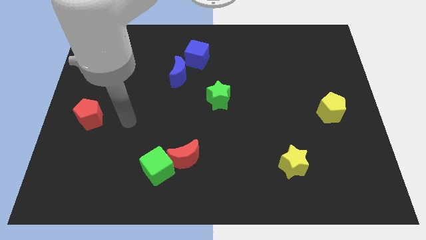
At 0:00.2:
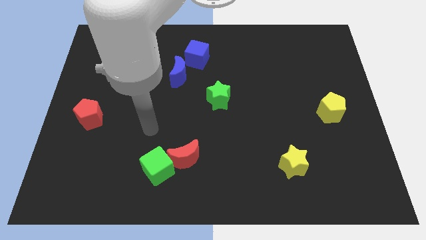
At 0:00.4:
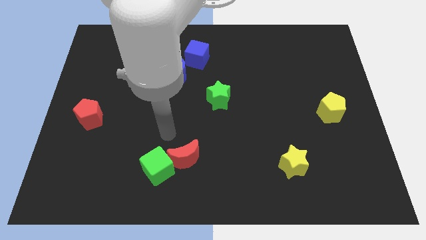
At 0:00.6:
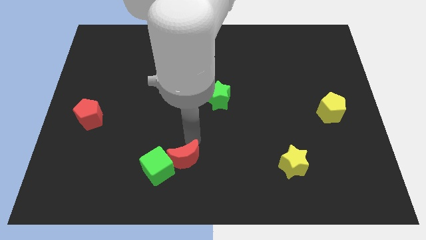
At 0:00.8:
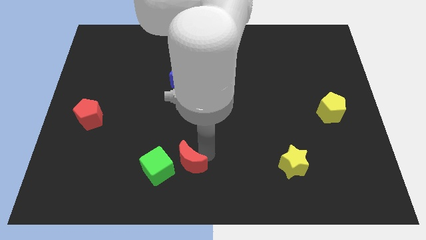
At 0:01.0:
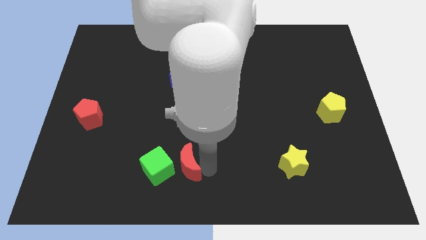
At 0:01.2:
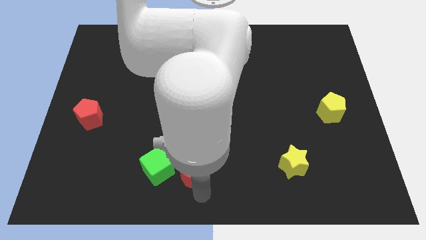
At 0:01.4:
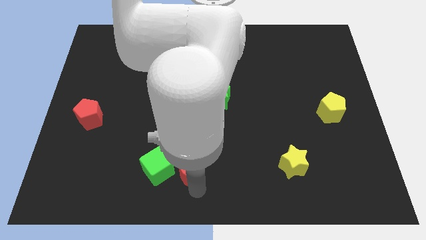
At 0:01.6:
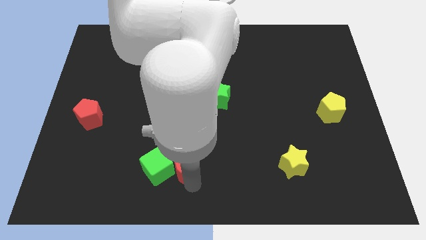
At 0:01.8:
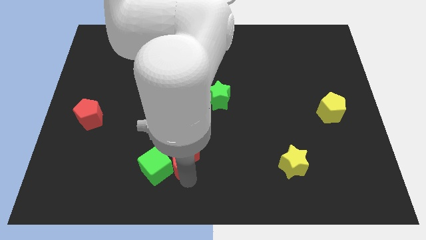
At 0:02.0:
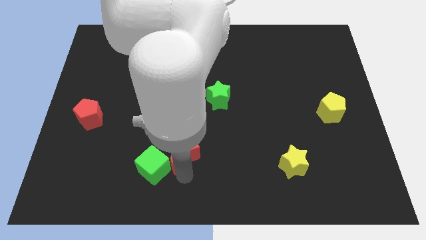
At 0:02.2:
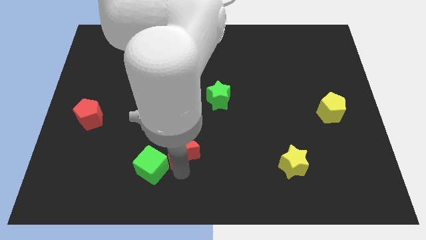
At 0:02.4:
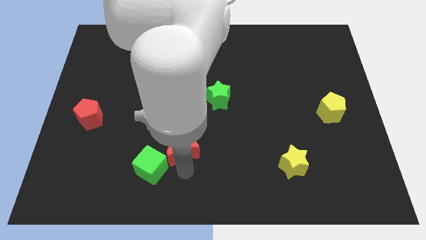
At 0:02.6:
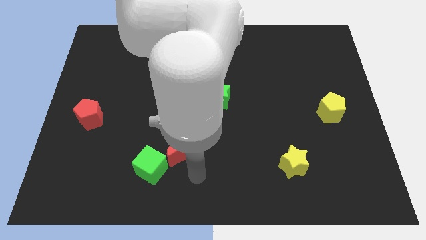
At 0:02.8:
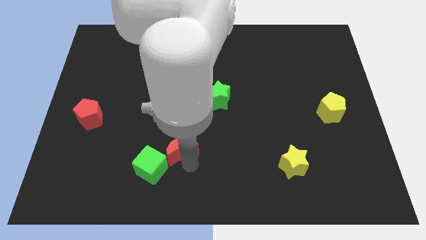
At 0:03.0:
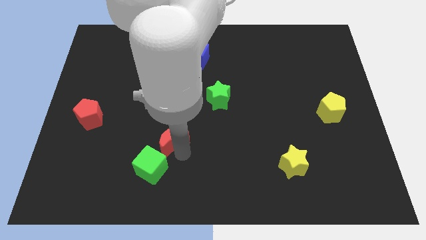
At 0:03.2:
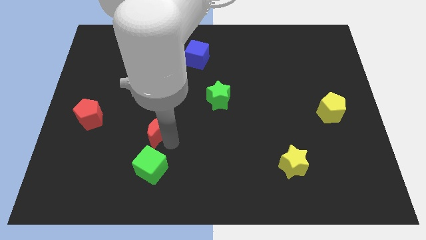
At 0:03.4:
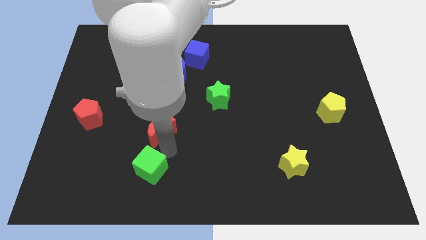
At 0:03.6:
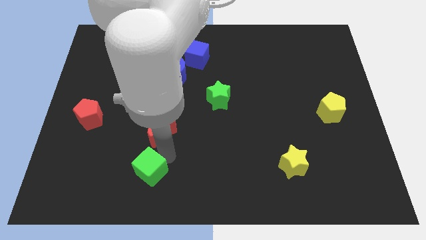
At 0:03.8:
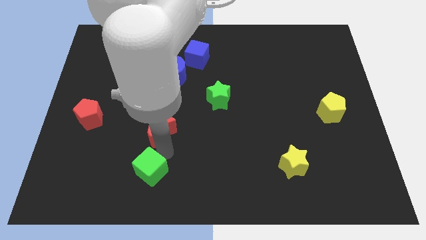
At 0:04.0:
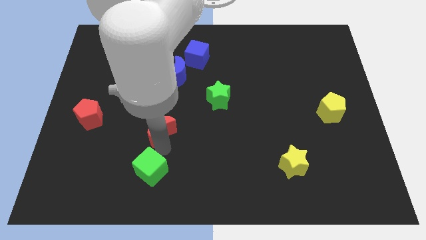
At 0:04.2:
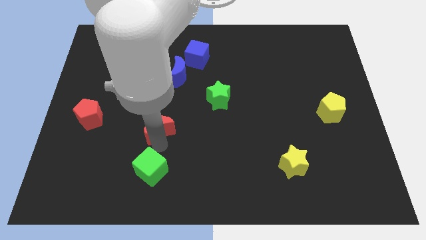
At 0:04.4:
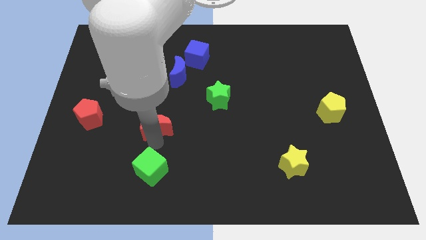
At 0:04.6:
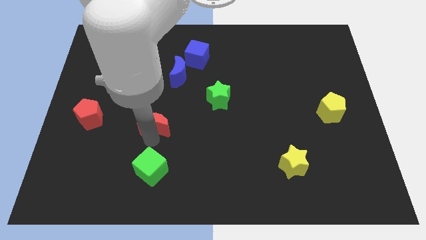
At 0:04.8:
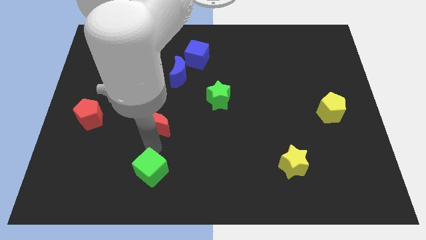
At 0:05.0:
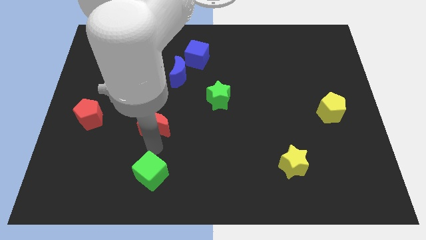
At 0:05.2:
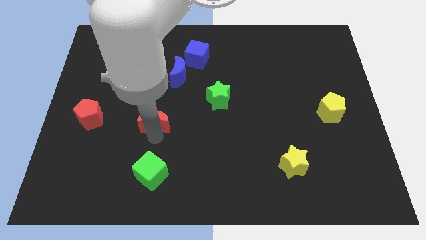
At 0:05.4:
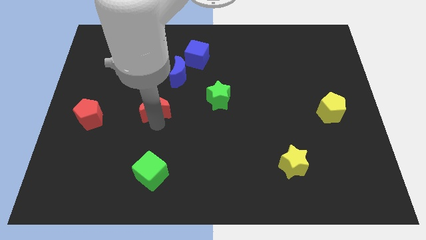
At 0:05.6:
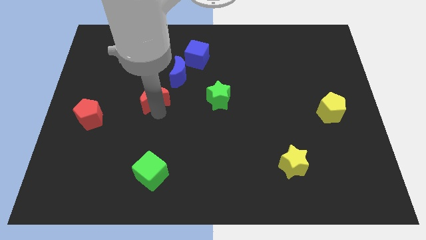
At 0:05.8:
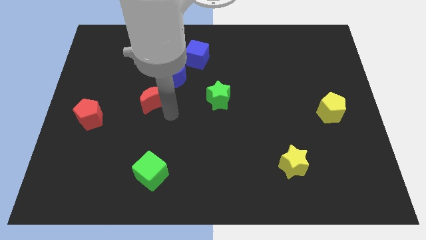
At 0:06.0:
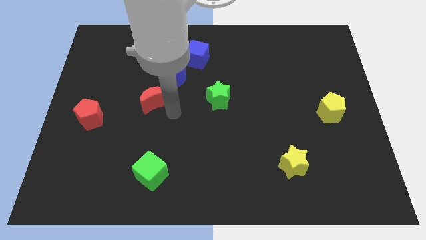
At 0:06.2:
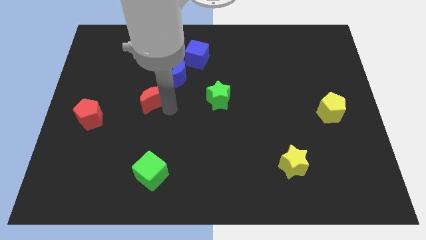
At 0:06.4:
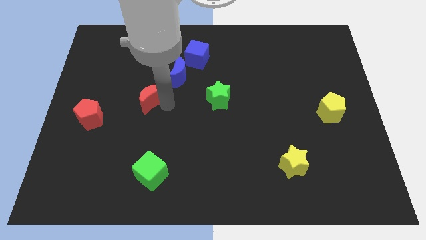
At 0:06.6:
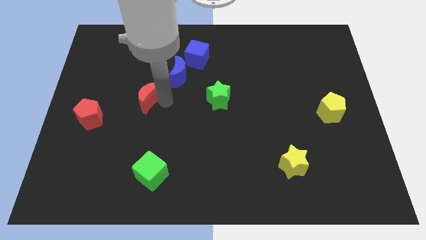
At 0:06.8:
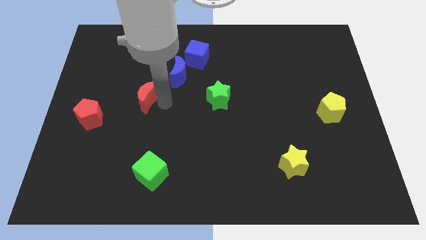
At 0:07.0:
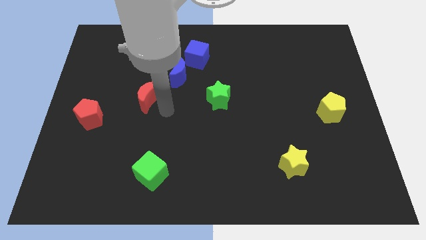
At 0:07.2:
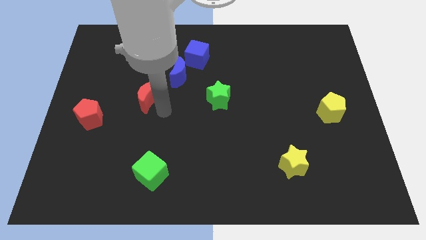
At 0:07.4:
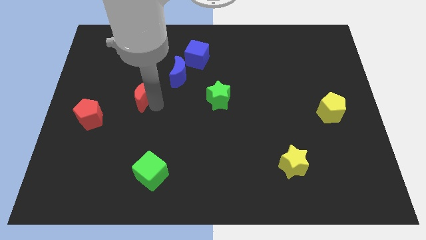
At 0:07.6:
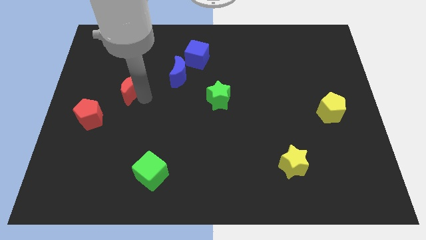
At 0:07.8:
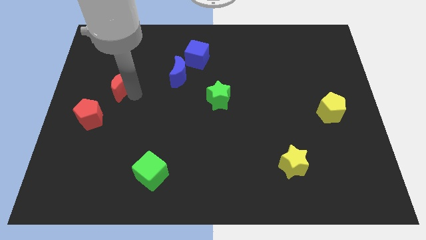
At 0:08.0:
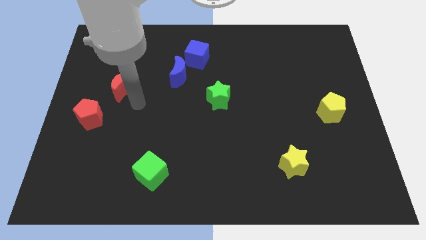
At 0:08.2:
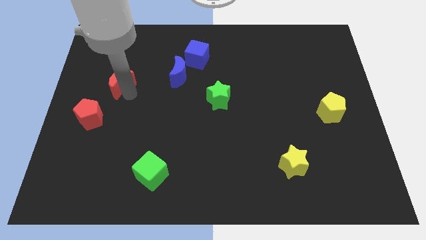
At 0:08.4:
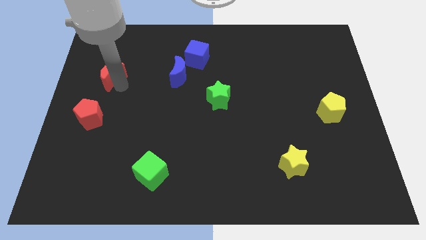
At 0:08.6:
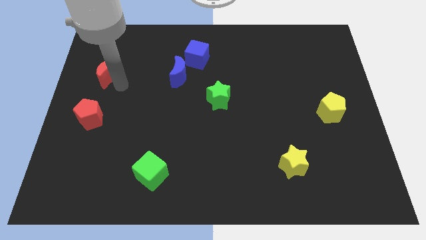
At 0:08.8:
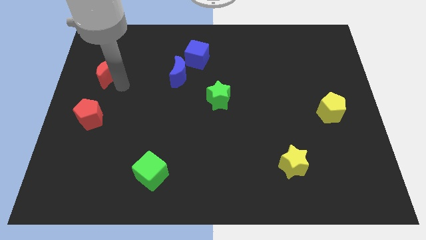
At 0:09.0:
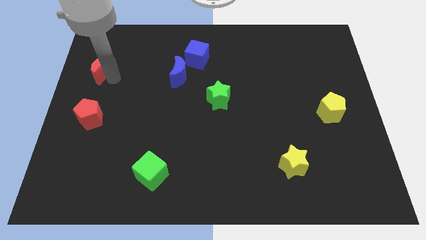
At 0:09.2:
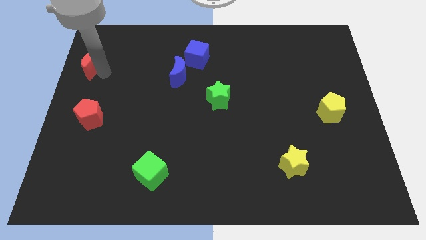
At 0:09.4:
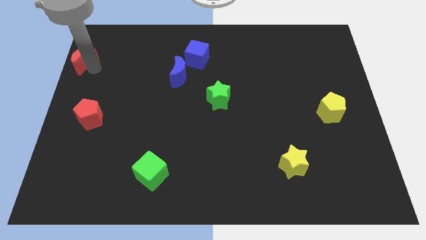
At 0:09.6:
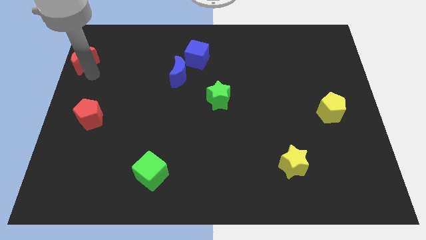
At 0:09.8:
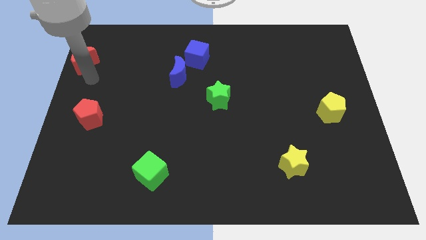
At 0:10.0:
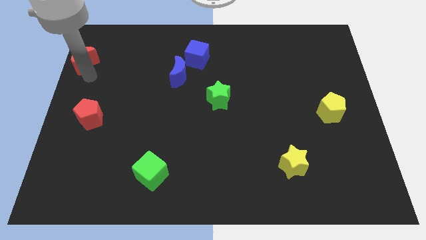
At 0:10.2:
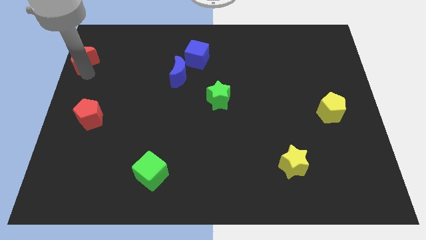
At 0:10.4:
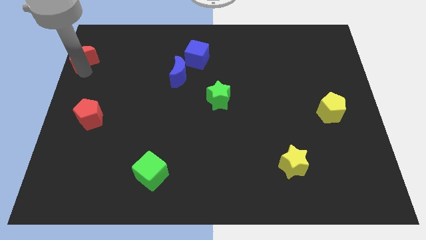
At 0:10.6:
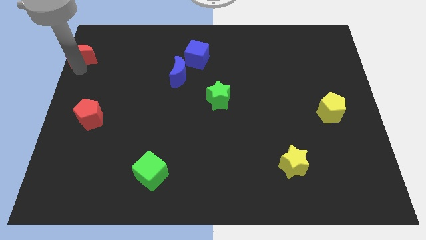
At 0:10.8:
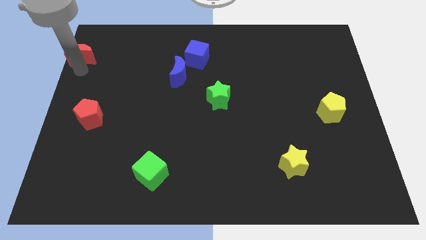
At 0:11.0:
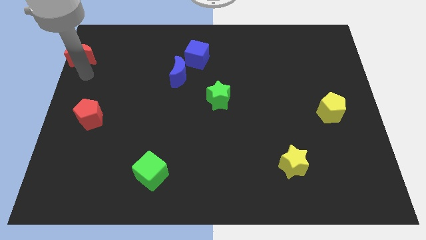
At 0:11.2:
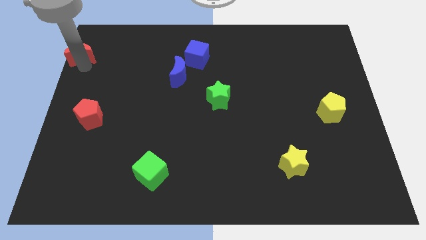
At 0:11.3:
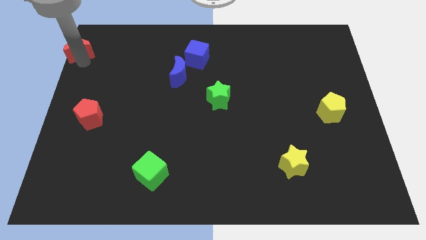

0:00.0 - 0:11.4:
push the red moon to the top left of the board

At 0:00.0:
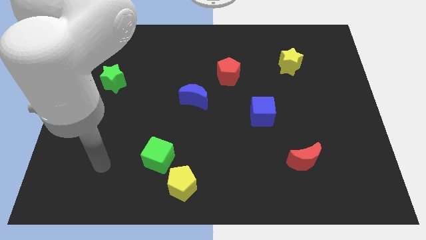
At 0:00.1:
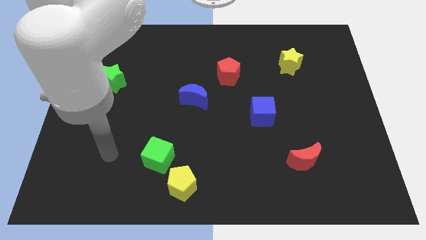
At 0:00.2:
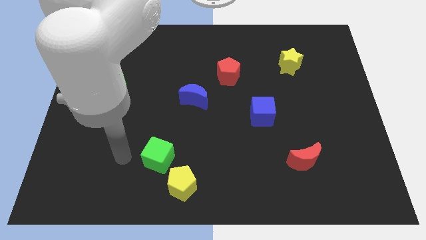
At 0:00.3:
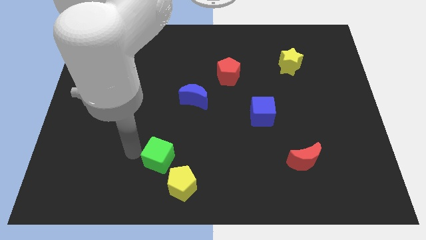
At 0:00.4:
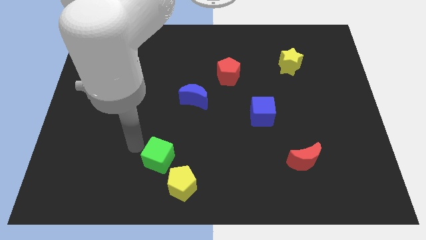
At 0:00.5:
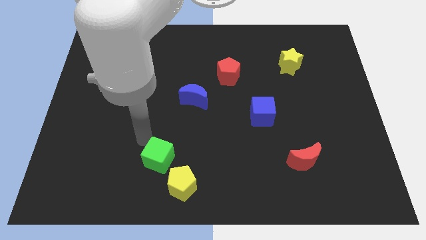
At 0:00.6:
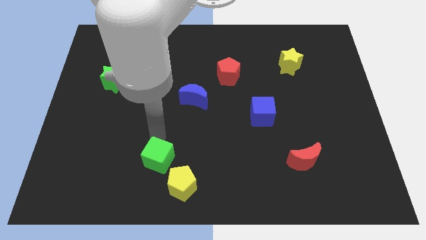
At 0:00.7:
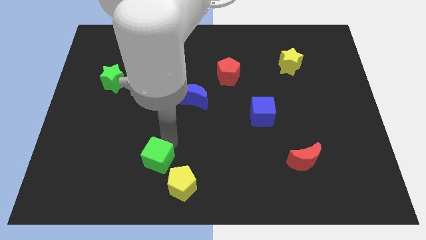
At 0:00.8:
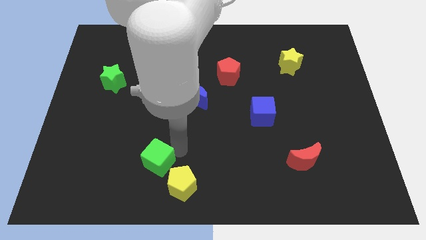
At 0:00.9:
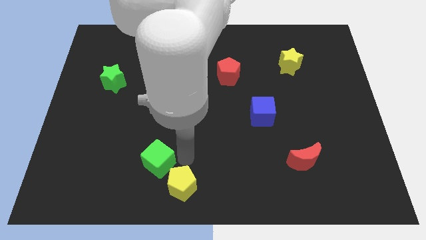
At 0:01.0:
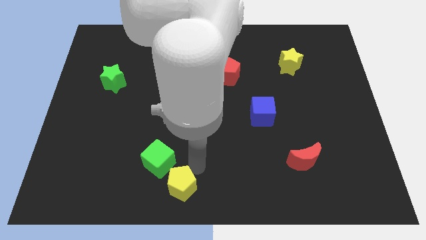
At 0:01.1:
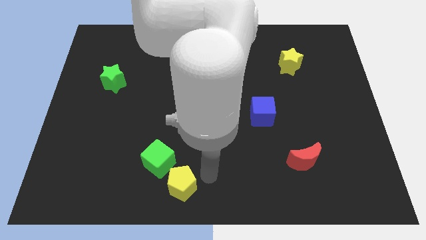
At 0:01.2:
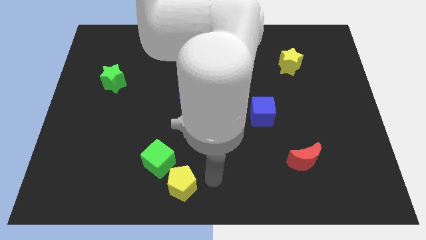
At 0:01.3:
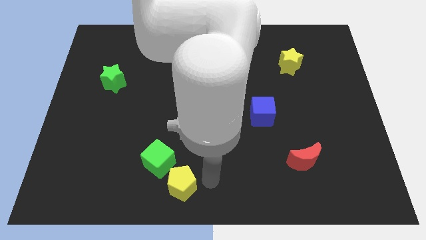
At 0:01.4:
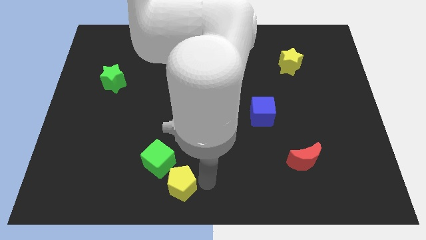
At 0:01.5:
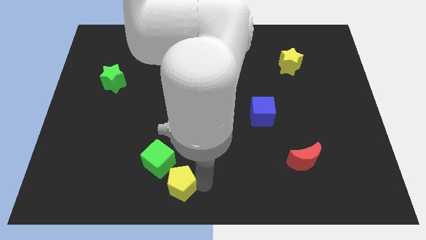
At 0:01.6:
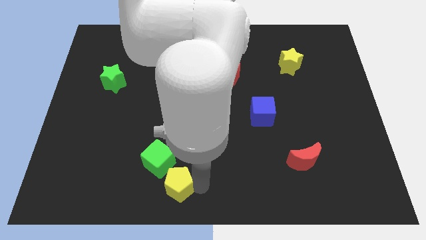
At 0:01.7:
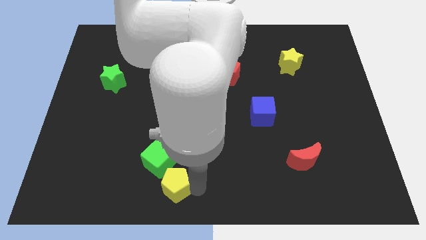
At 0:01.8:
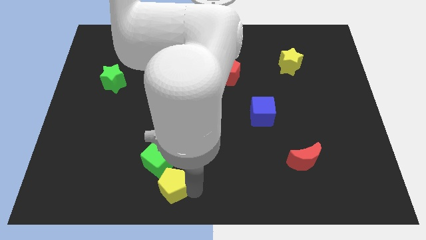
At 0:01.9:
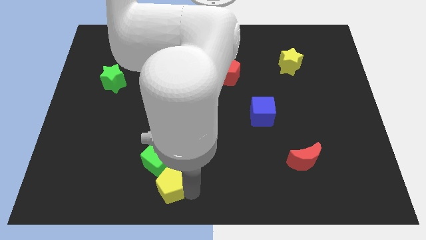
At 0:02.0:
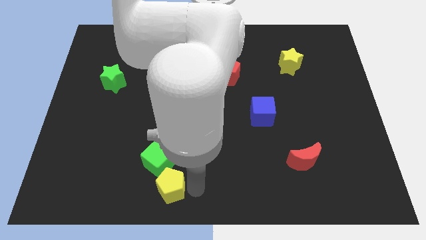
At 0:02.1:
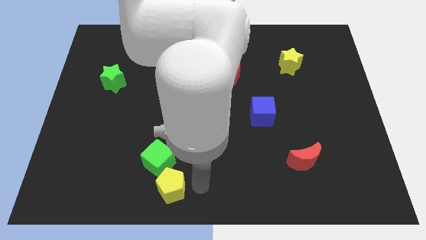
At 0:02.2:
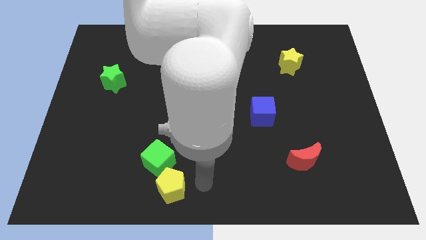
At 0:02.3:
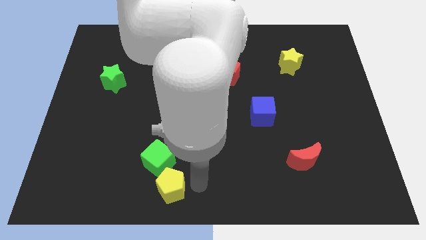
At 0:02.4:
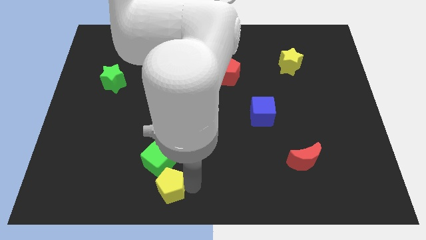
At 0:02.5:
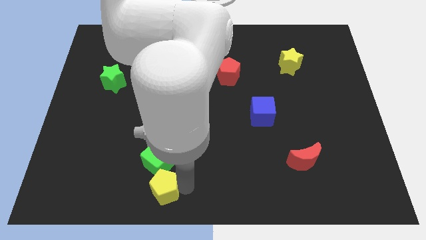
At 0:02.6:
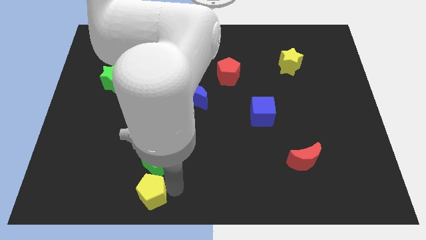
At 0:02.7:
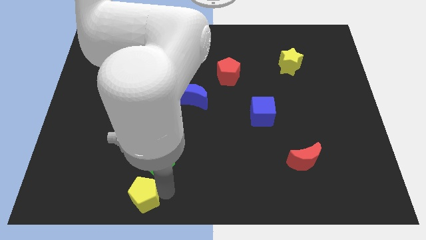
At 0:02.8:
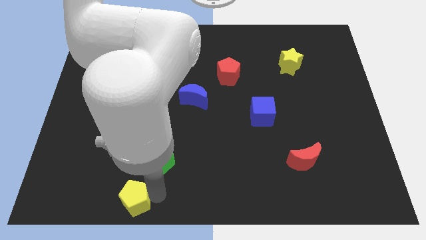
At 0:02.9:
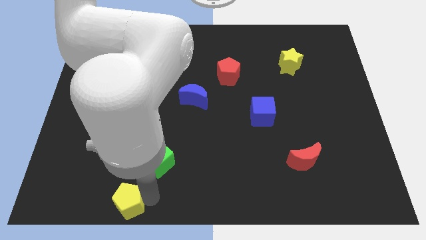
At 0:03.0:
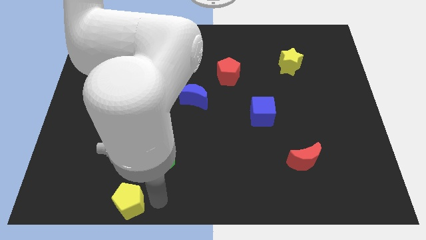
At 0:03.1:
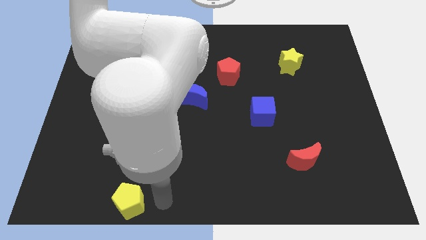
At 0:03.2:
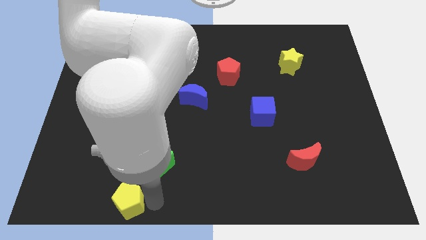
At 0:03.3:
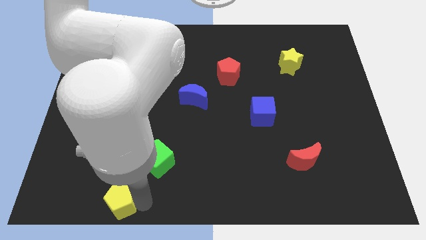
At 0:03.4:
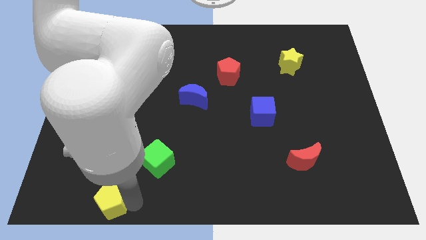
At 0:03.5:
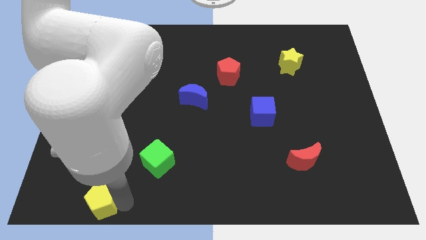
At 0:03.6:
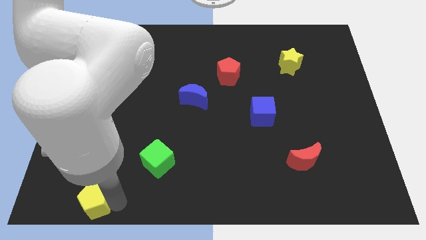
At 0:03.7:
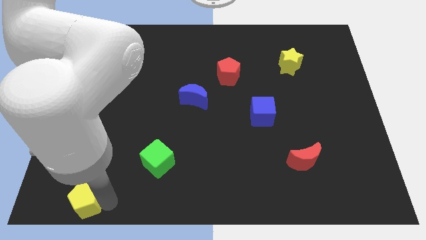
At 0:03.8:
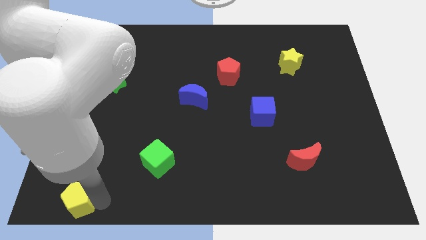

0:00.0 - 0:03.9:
move the yellow pentagon to the bottom left corner
